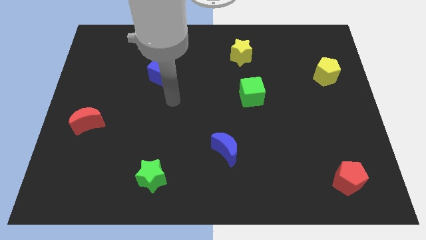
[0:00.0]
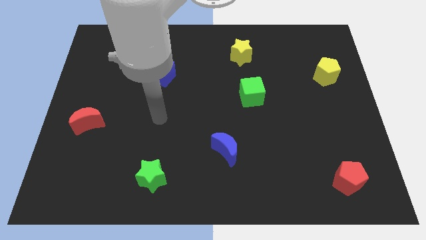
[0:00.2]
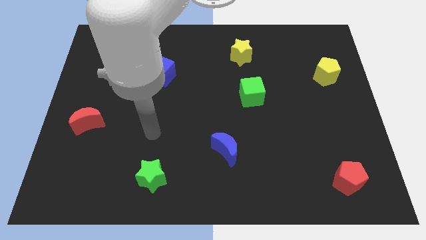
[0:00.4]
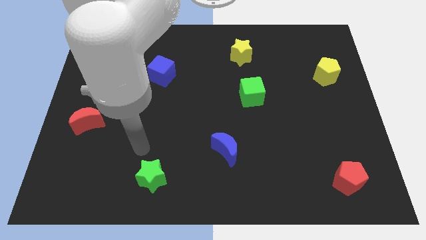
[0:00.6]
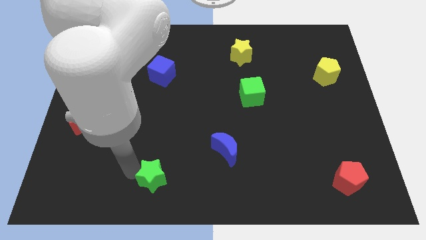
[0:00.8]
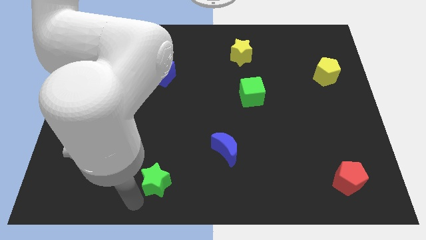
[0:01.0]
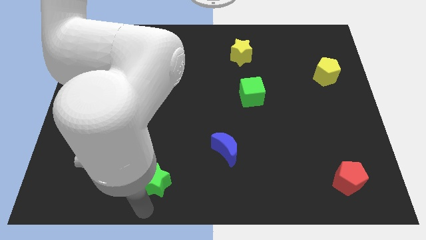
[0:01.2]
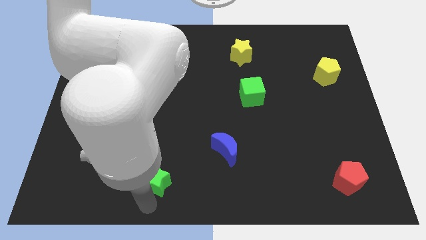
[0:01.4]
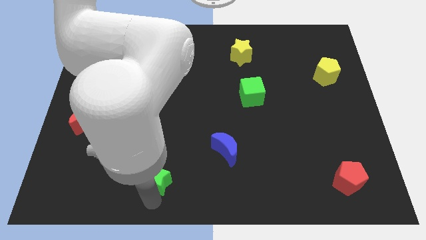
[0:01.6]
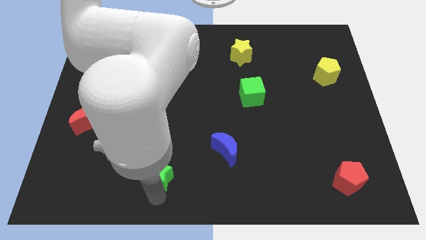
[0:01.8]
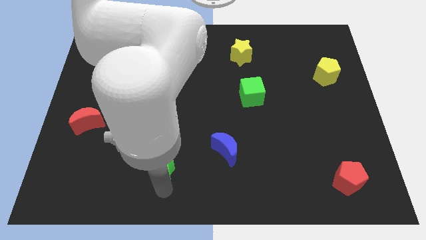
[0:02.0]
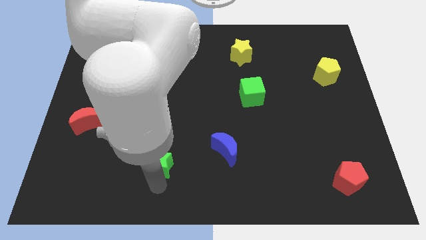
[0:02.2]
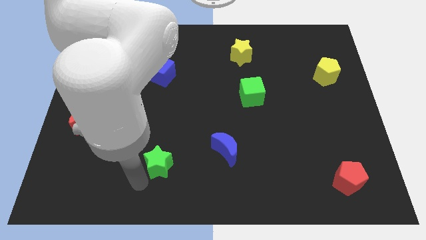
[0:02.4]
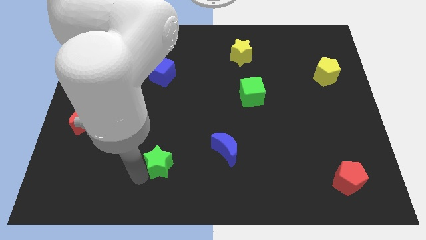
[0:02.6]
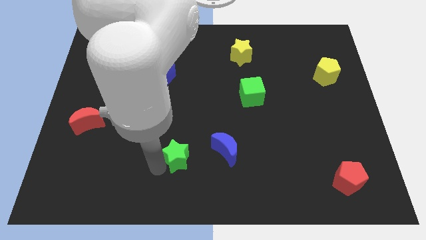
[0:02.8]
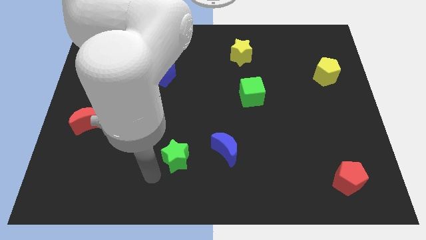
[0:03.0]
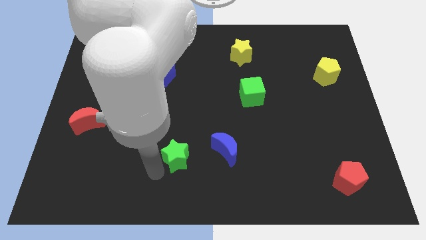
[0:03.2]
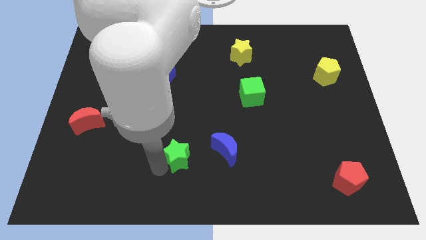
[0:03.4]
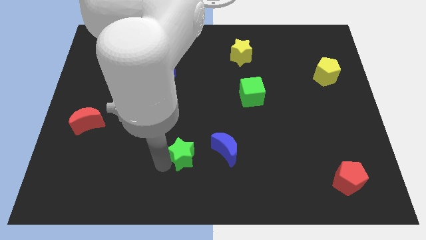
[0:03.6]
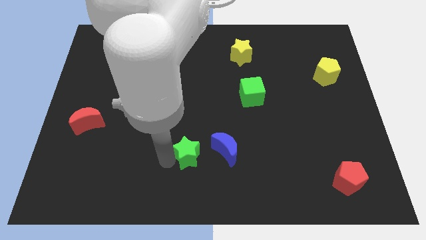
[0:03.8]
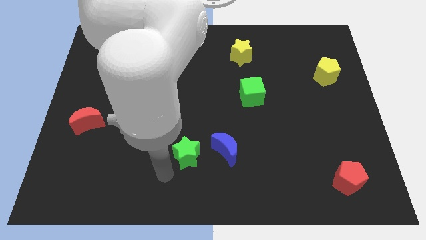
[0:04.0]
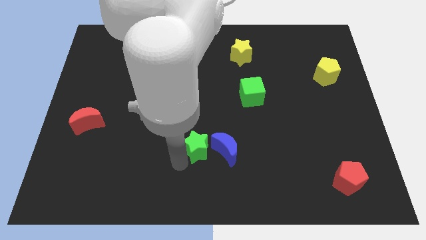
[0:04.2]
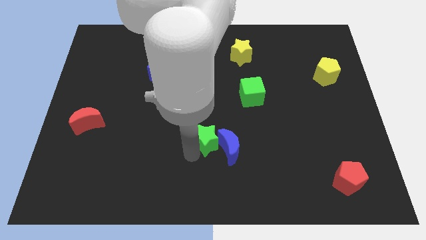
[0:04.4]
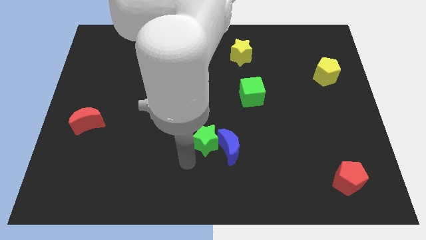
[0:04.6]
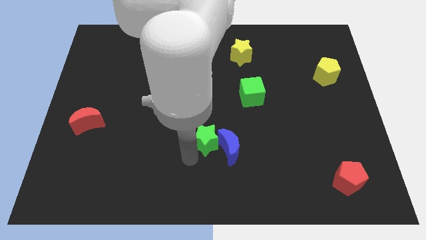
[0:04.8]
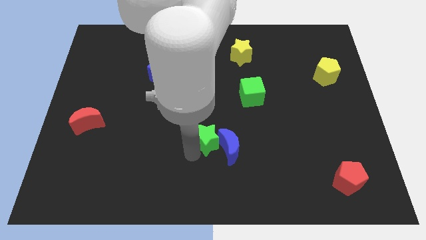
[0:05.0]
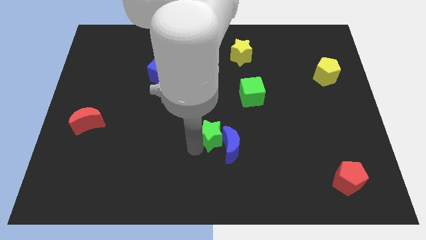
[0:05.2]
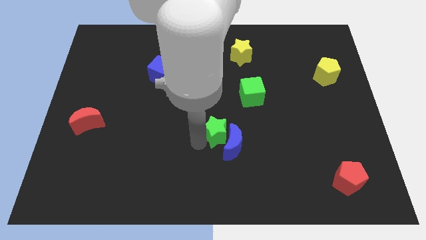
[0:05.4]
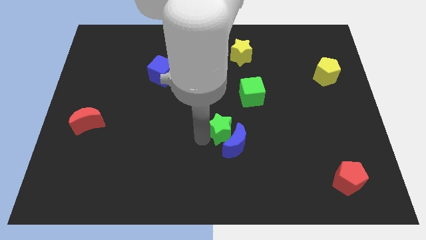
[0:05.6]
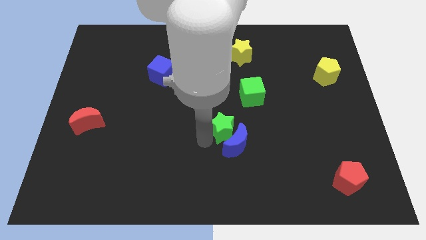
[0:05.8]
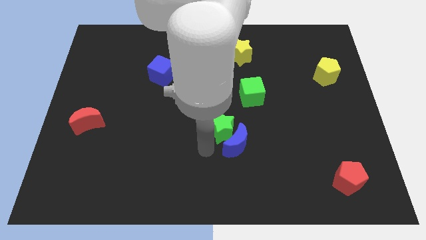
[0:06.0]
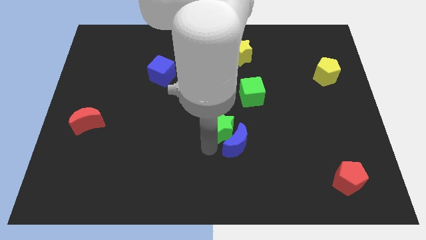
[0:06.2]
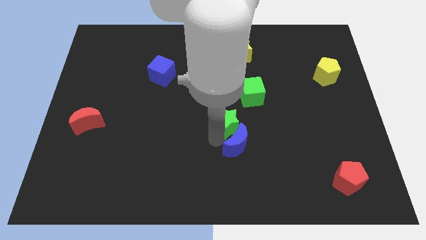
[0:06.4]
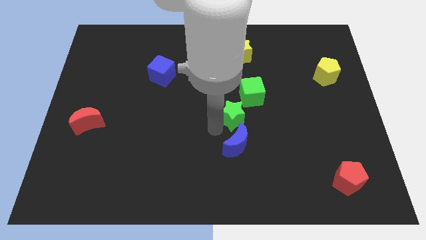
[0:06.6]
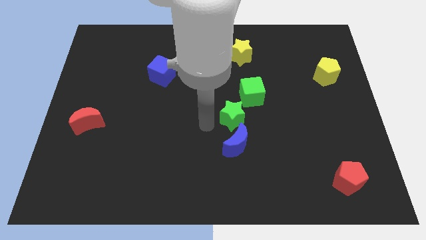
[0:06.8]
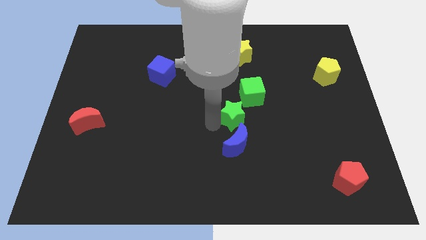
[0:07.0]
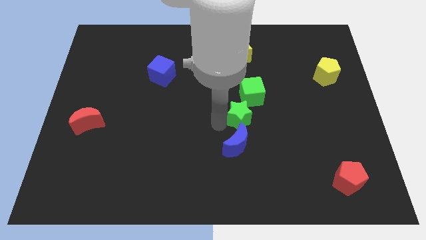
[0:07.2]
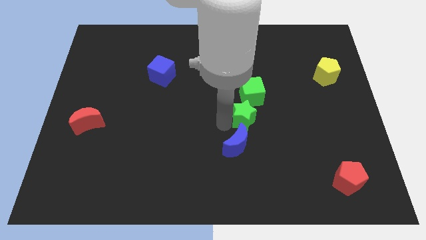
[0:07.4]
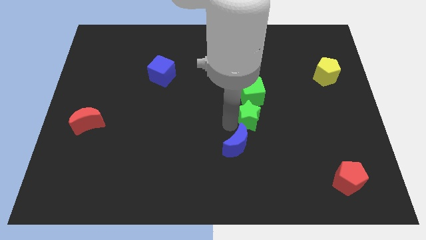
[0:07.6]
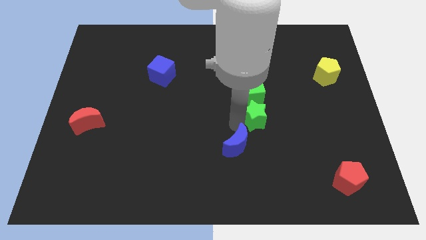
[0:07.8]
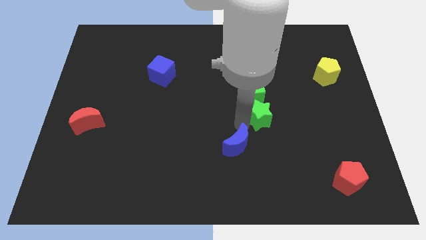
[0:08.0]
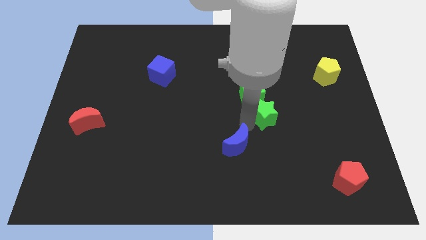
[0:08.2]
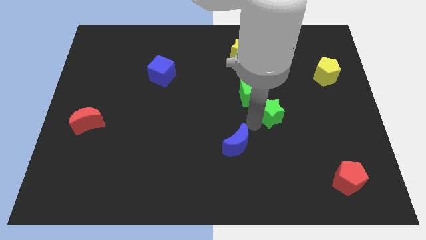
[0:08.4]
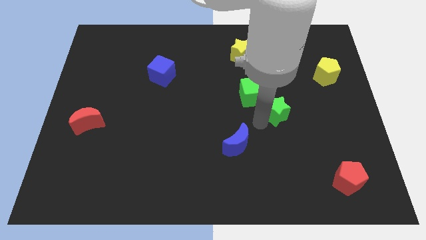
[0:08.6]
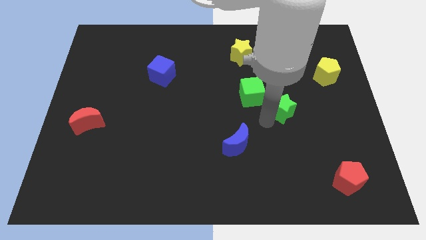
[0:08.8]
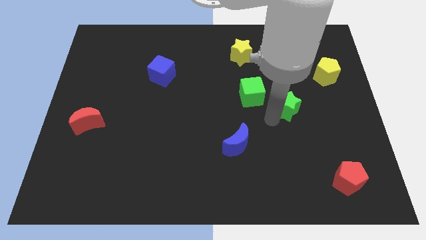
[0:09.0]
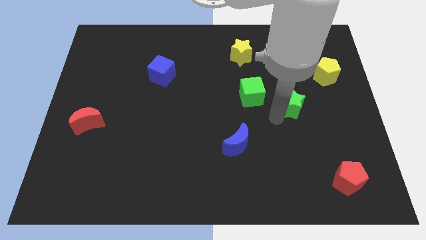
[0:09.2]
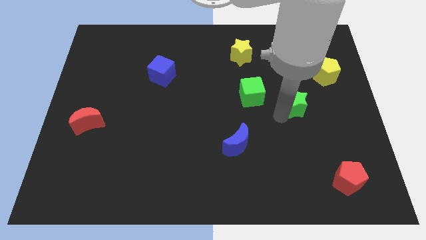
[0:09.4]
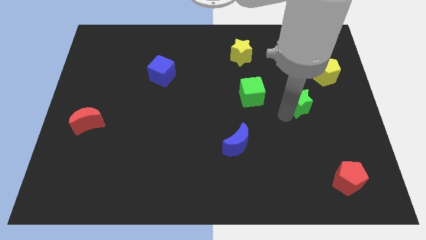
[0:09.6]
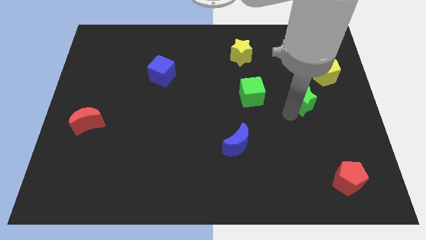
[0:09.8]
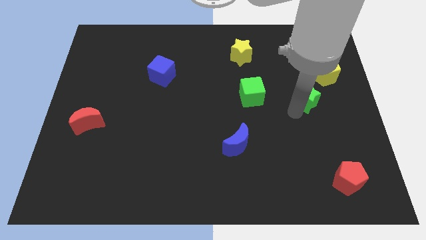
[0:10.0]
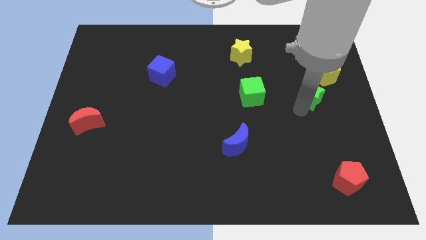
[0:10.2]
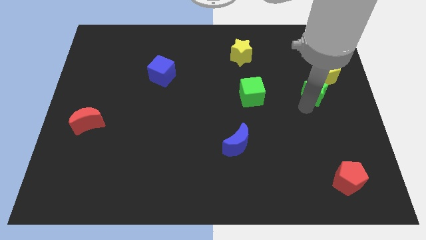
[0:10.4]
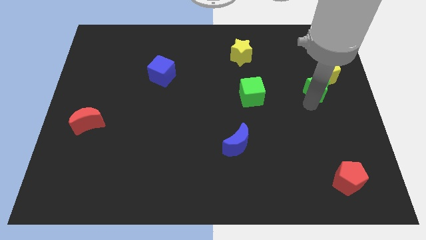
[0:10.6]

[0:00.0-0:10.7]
push the green star towards the yellow pentagon

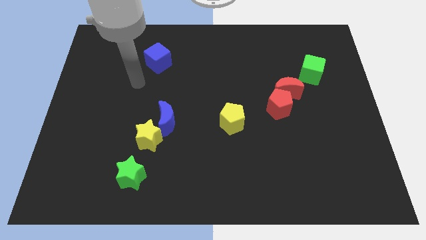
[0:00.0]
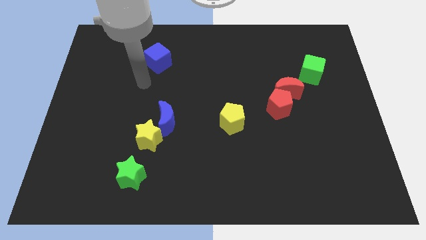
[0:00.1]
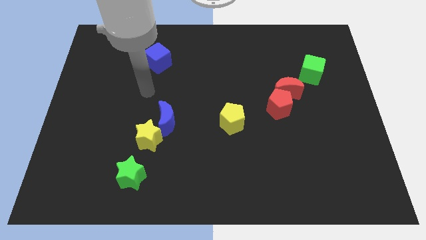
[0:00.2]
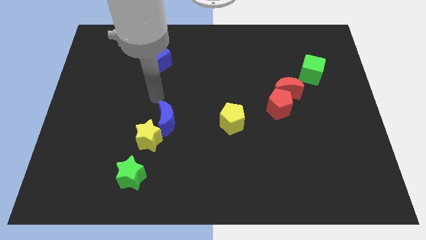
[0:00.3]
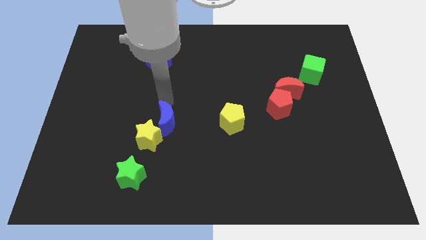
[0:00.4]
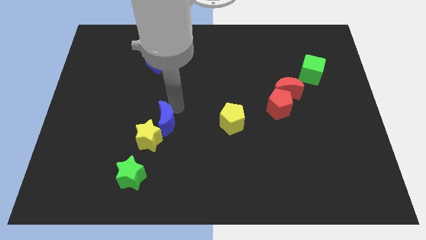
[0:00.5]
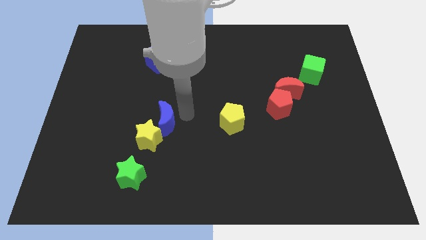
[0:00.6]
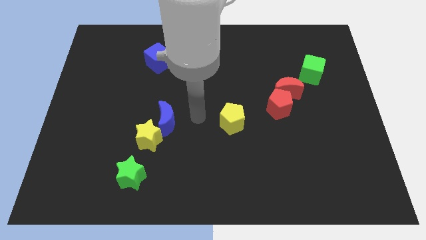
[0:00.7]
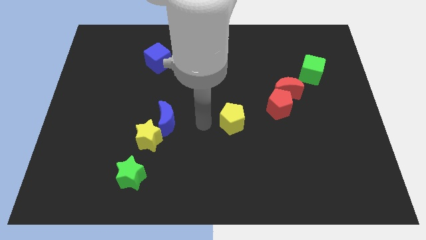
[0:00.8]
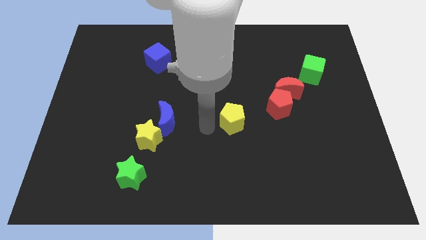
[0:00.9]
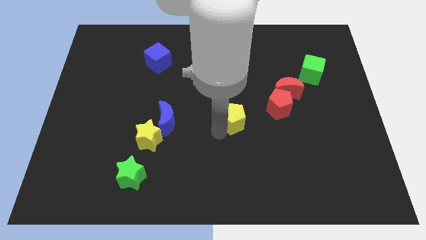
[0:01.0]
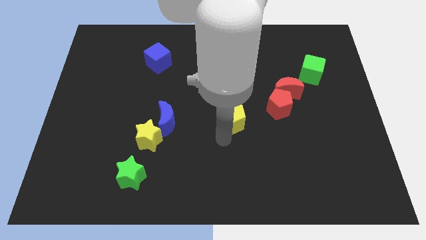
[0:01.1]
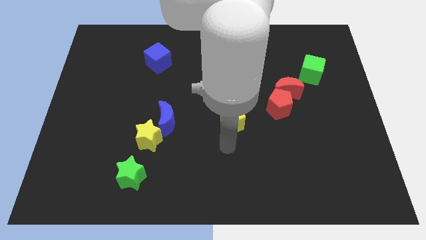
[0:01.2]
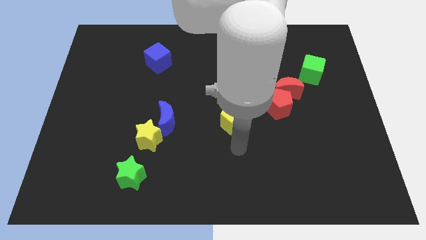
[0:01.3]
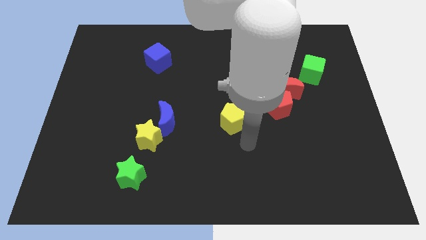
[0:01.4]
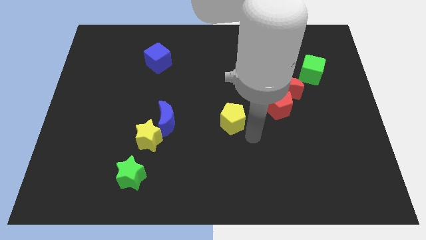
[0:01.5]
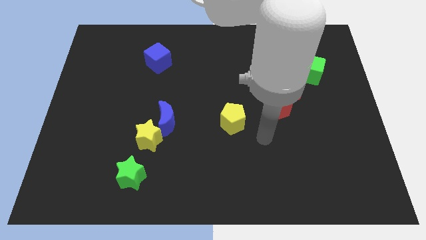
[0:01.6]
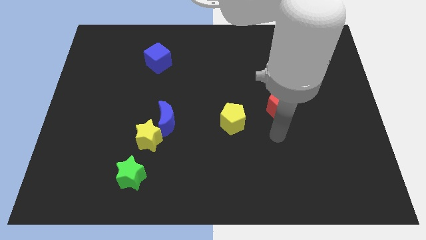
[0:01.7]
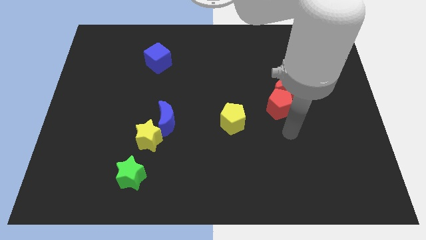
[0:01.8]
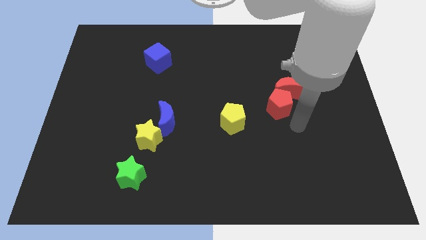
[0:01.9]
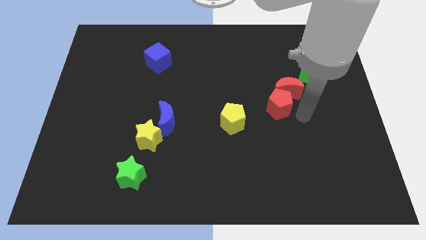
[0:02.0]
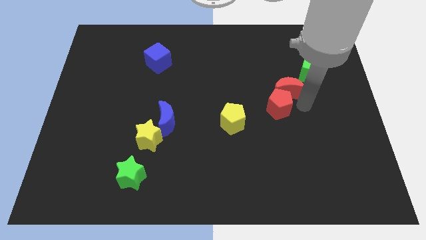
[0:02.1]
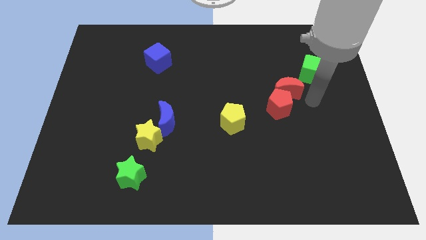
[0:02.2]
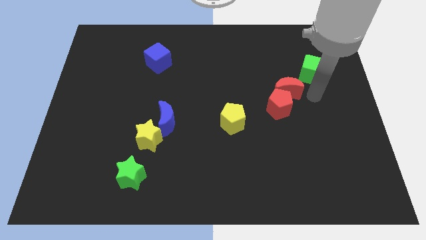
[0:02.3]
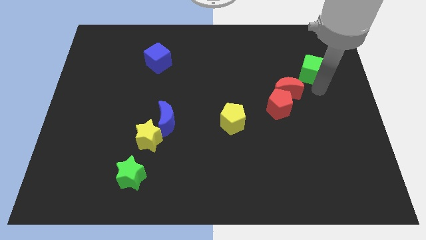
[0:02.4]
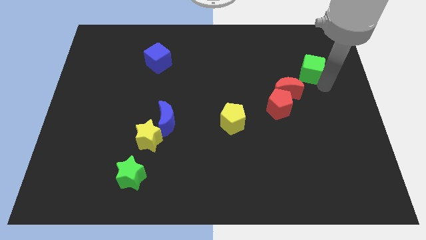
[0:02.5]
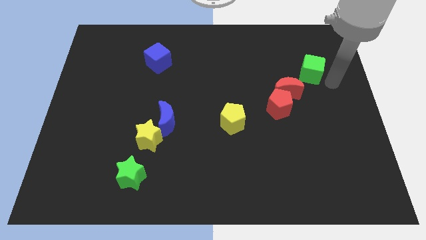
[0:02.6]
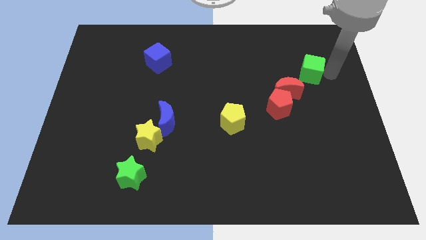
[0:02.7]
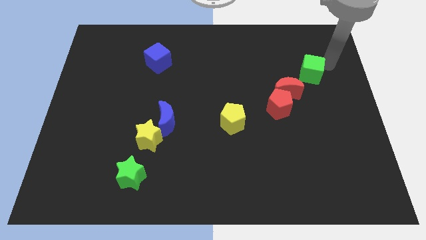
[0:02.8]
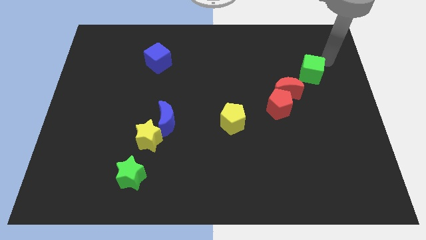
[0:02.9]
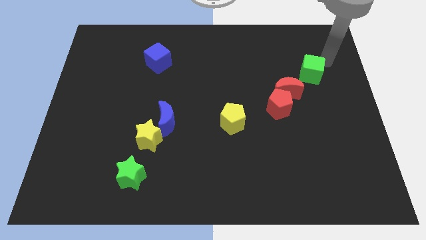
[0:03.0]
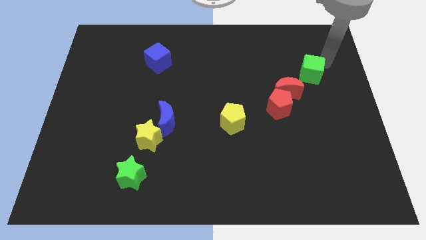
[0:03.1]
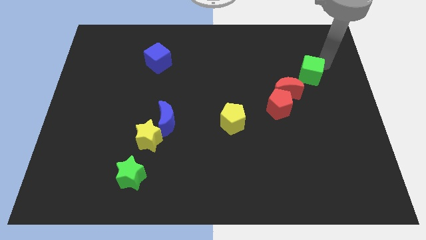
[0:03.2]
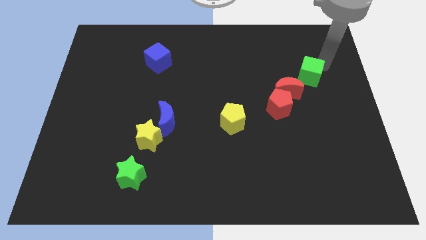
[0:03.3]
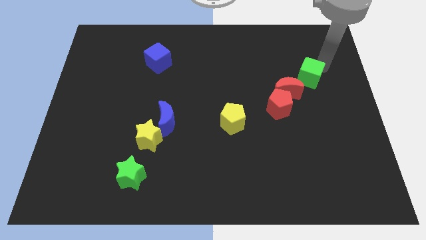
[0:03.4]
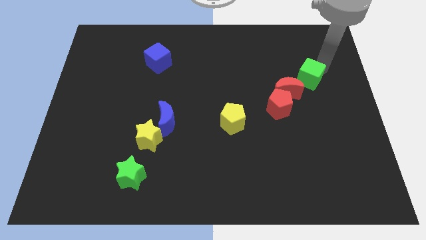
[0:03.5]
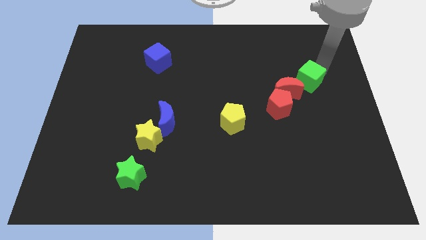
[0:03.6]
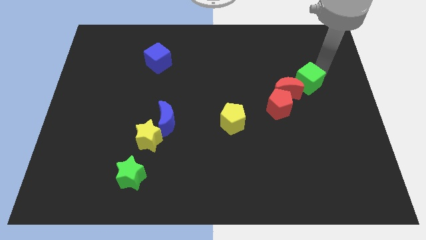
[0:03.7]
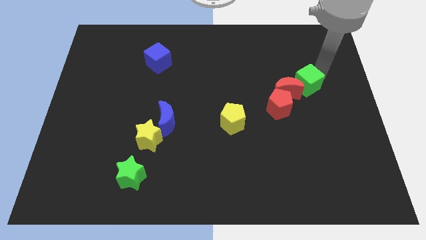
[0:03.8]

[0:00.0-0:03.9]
move the green cube towards the red moon
